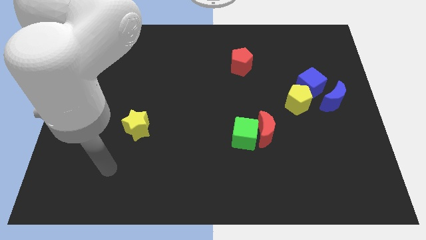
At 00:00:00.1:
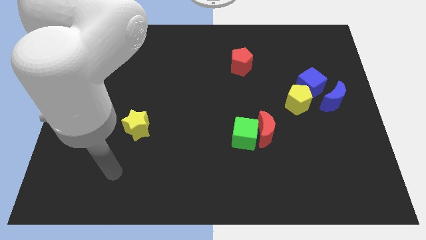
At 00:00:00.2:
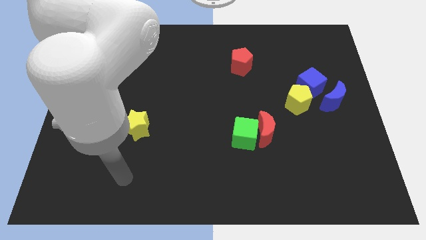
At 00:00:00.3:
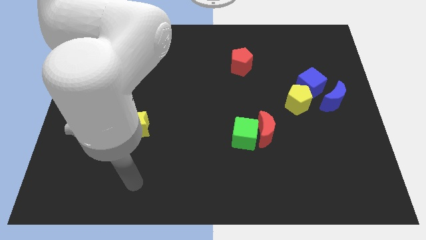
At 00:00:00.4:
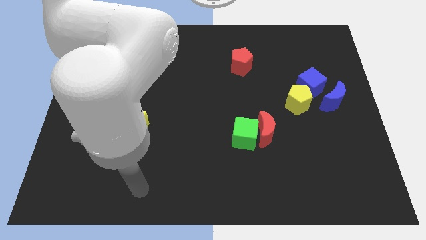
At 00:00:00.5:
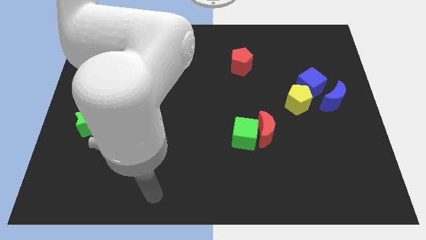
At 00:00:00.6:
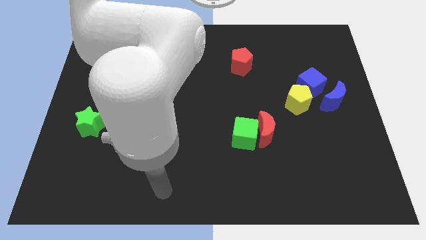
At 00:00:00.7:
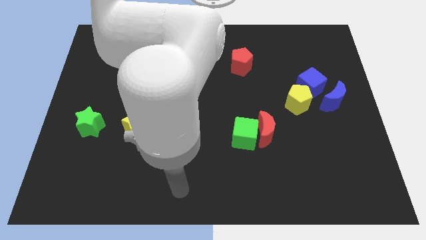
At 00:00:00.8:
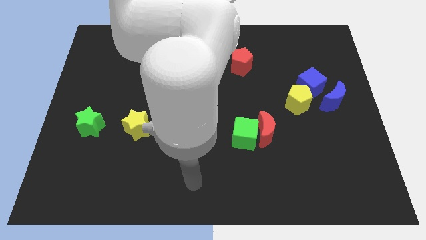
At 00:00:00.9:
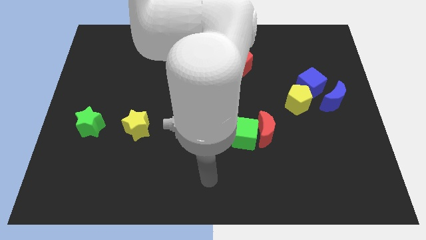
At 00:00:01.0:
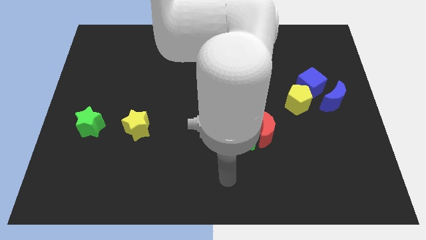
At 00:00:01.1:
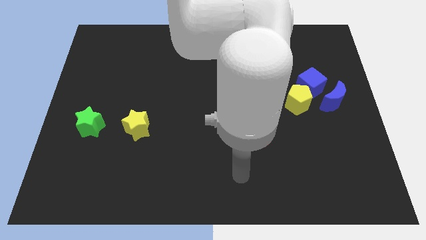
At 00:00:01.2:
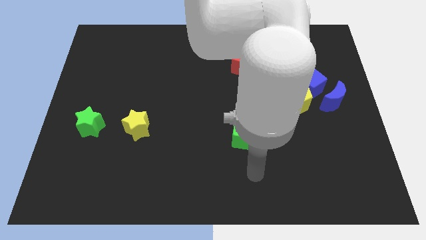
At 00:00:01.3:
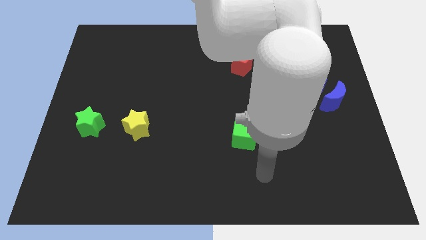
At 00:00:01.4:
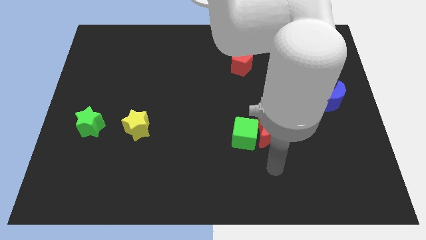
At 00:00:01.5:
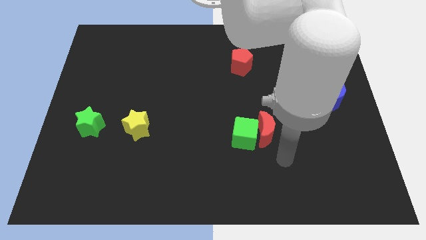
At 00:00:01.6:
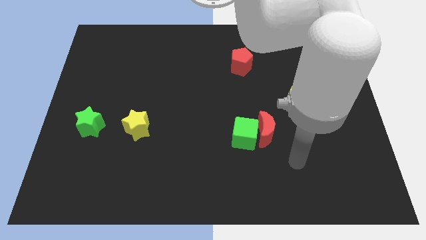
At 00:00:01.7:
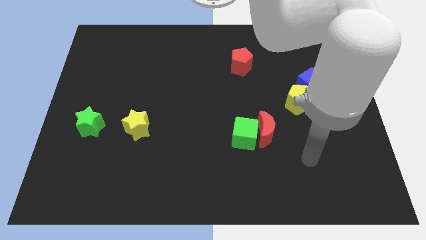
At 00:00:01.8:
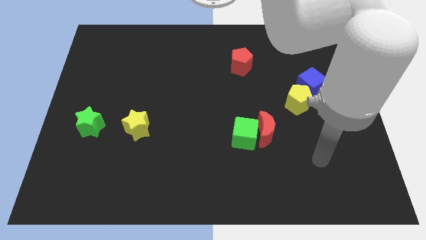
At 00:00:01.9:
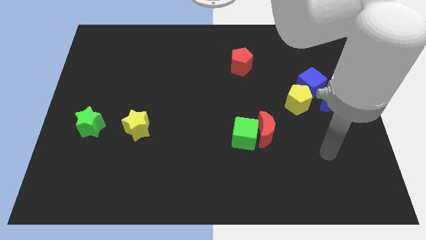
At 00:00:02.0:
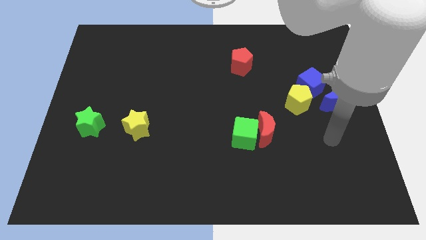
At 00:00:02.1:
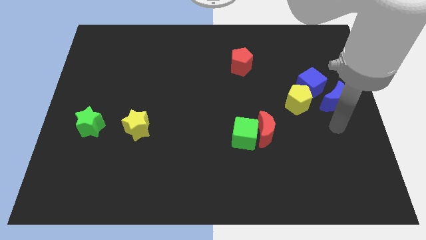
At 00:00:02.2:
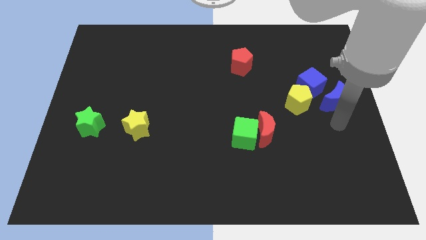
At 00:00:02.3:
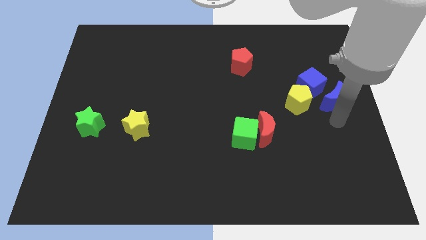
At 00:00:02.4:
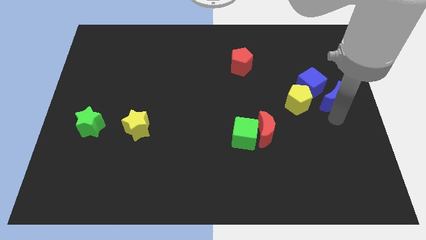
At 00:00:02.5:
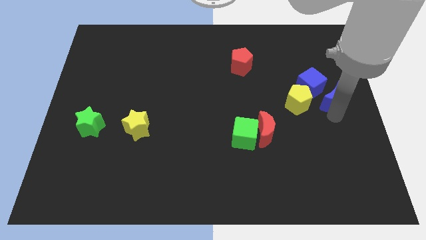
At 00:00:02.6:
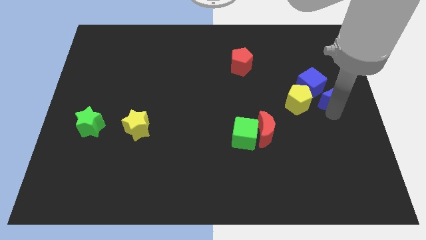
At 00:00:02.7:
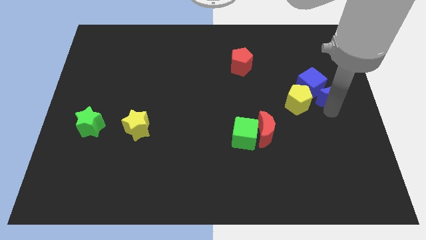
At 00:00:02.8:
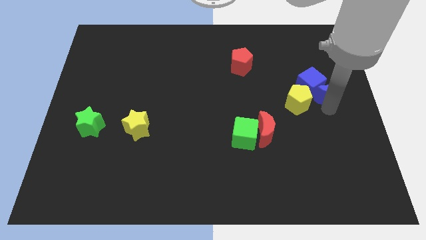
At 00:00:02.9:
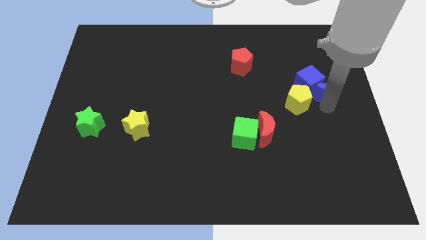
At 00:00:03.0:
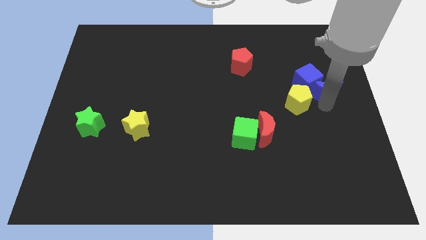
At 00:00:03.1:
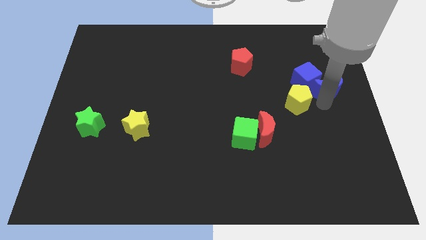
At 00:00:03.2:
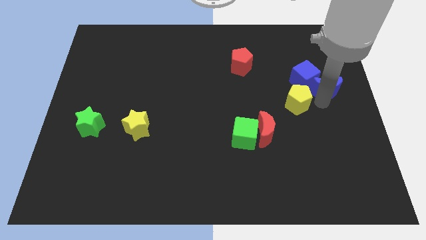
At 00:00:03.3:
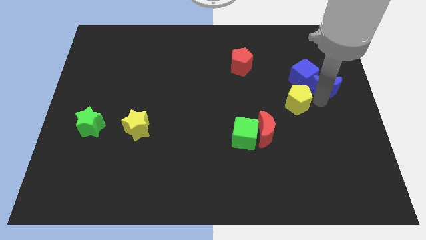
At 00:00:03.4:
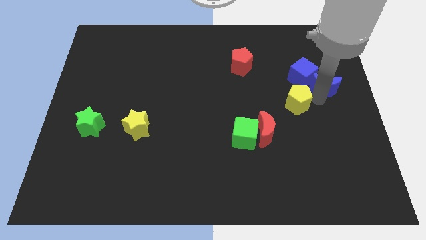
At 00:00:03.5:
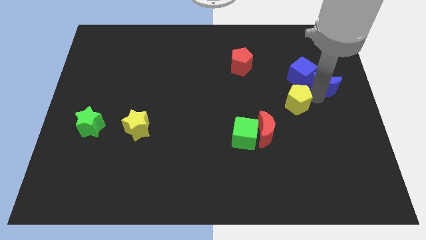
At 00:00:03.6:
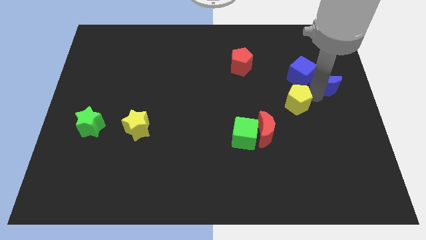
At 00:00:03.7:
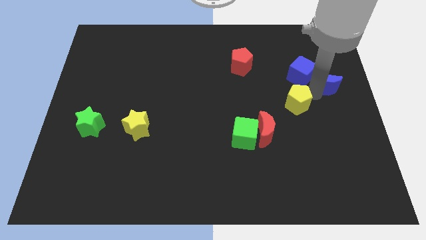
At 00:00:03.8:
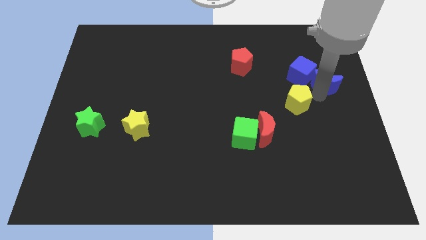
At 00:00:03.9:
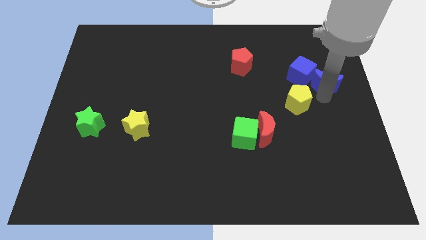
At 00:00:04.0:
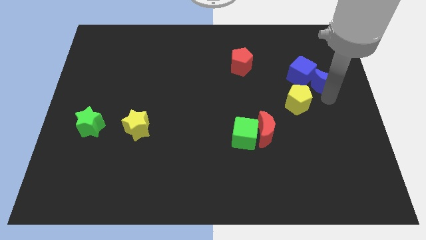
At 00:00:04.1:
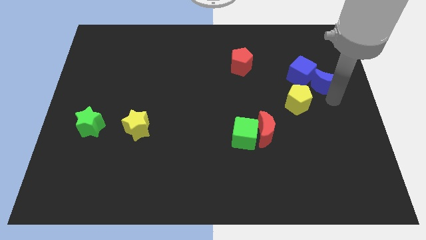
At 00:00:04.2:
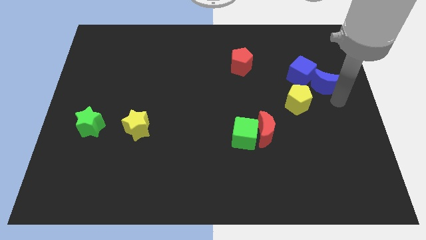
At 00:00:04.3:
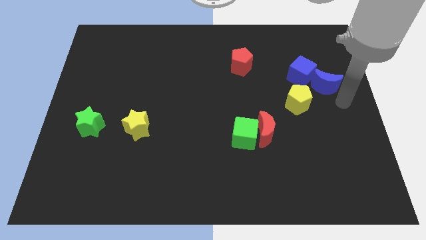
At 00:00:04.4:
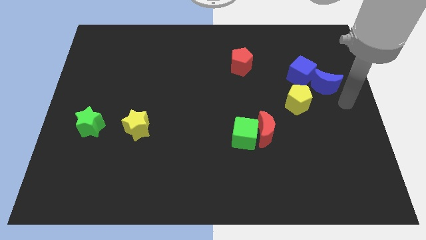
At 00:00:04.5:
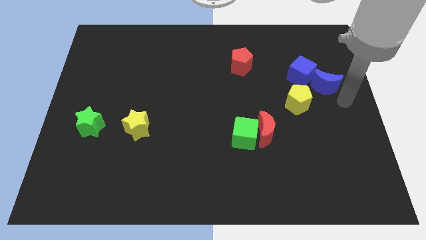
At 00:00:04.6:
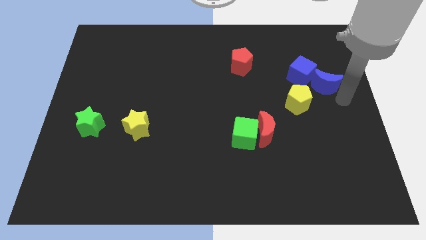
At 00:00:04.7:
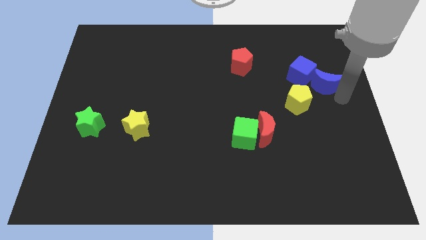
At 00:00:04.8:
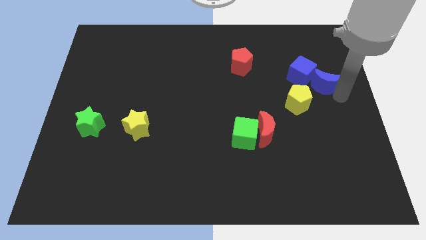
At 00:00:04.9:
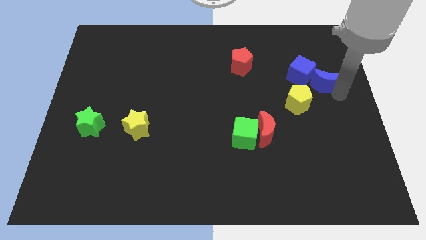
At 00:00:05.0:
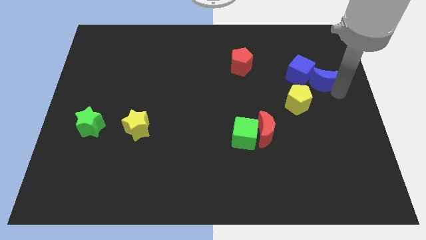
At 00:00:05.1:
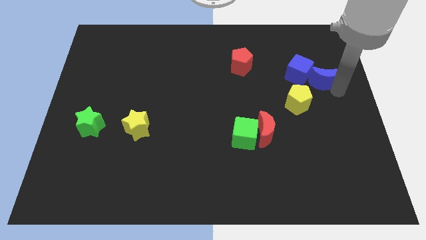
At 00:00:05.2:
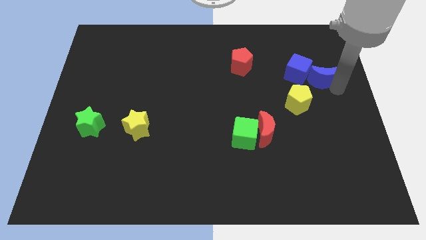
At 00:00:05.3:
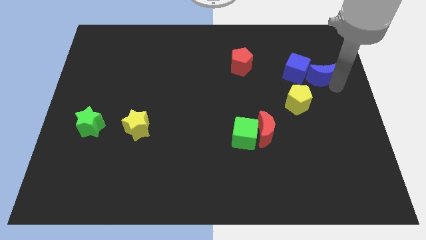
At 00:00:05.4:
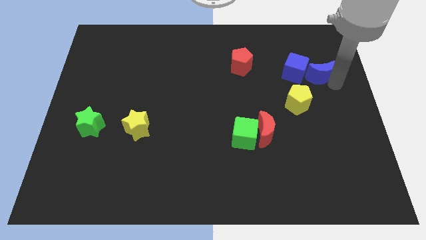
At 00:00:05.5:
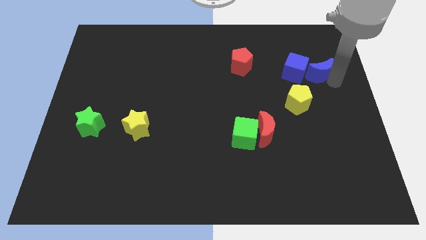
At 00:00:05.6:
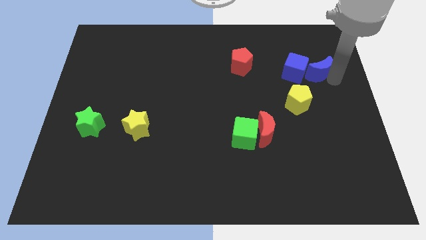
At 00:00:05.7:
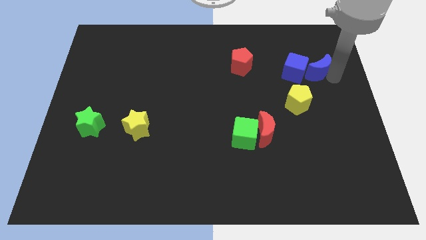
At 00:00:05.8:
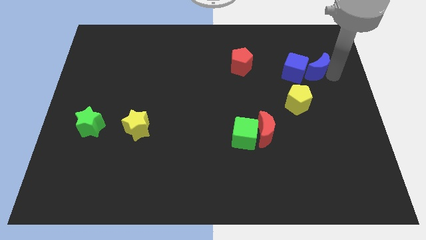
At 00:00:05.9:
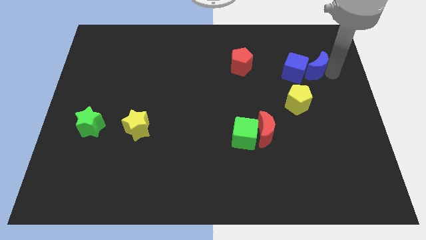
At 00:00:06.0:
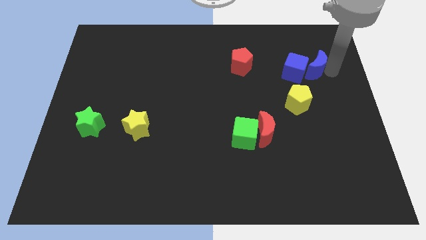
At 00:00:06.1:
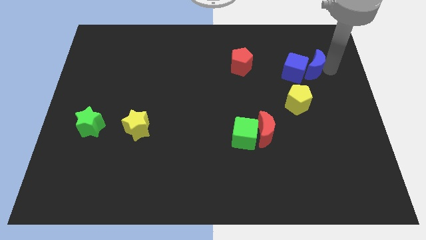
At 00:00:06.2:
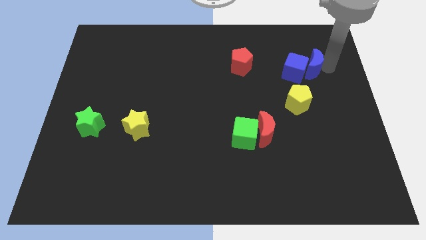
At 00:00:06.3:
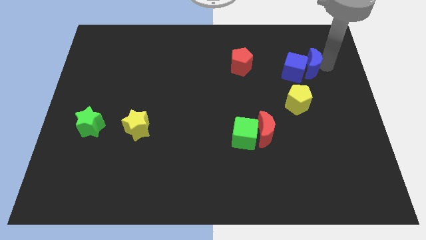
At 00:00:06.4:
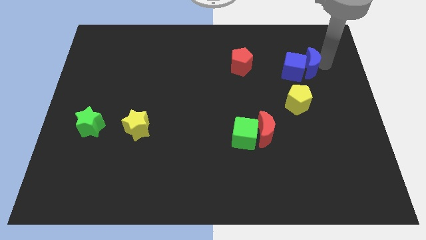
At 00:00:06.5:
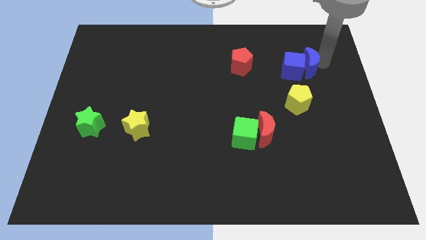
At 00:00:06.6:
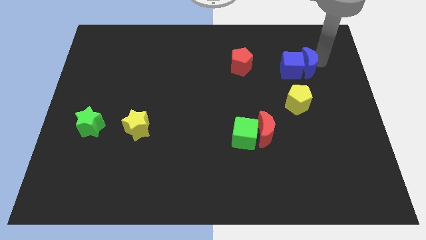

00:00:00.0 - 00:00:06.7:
put the blue moon to the top of the yellow pentagon

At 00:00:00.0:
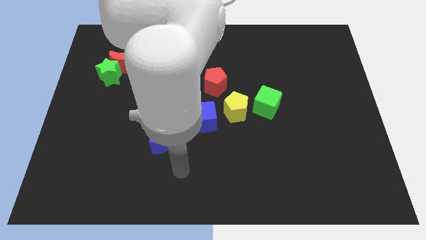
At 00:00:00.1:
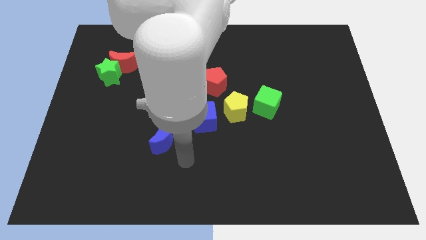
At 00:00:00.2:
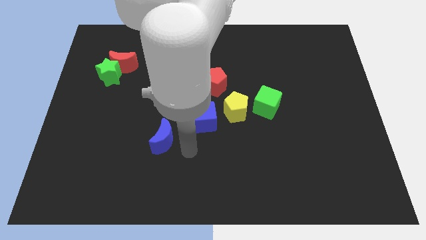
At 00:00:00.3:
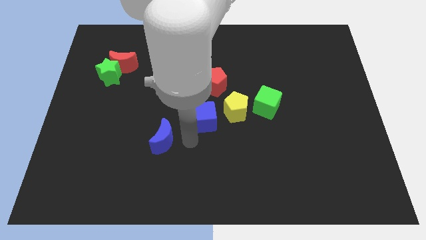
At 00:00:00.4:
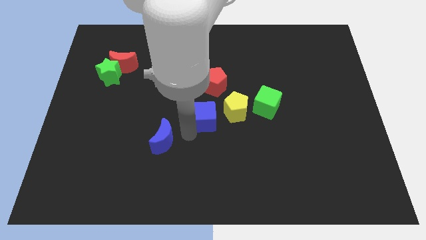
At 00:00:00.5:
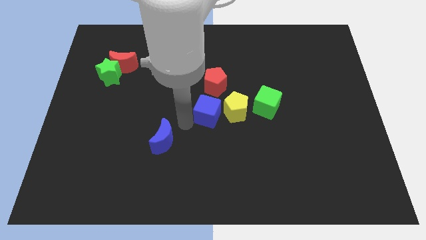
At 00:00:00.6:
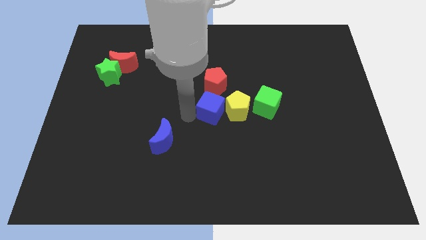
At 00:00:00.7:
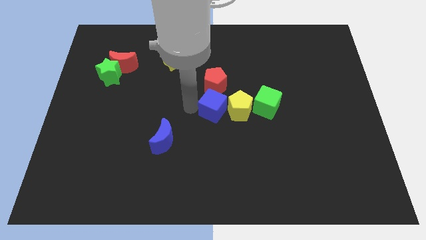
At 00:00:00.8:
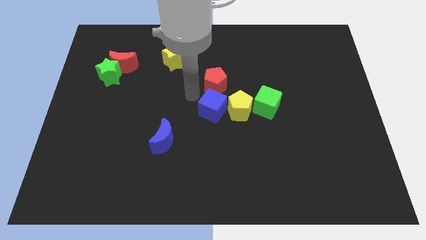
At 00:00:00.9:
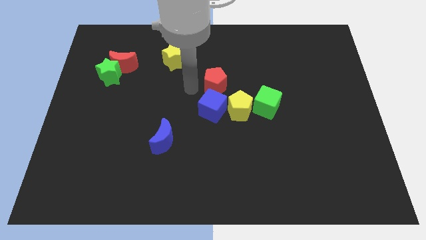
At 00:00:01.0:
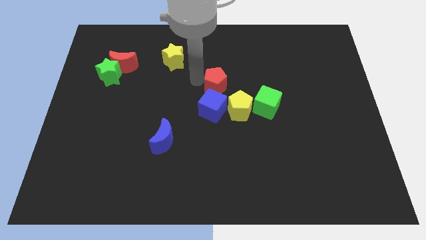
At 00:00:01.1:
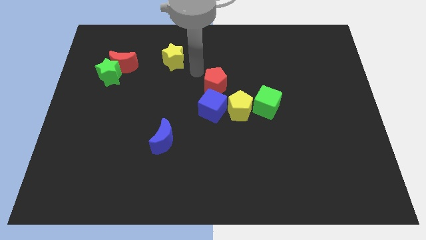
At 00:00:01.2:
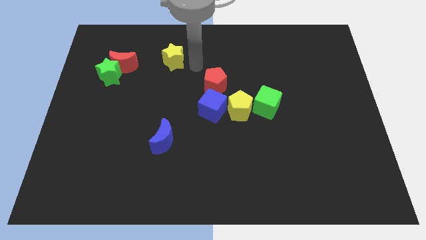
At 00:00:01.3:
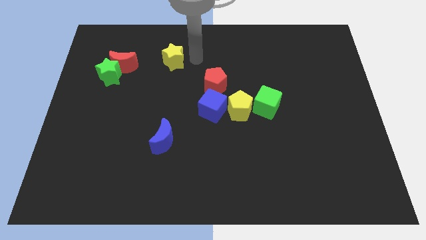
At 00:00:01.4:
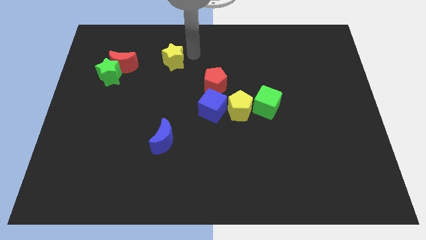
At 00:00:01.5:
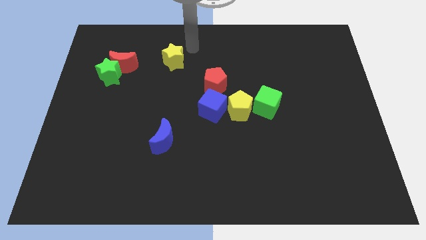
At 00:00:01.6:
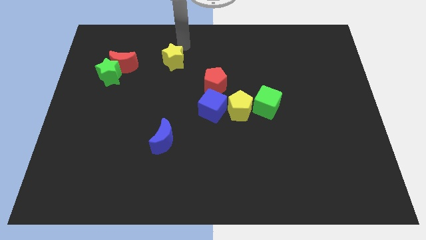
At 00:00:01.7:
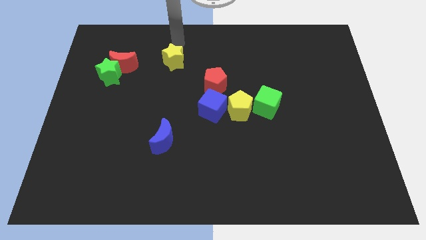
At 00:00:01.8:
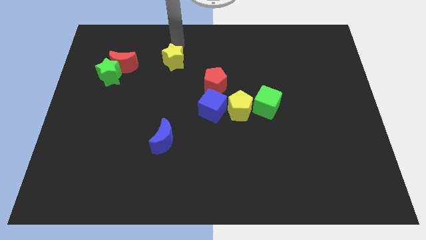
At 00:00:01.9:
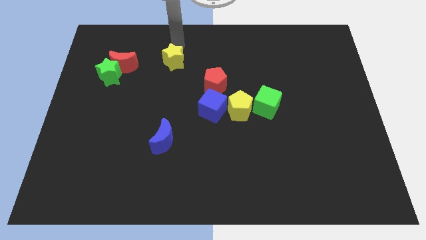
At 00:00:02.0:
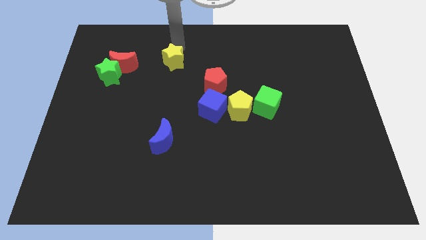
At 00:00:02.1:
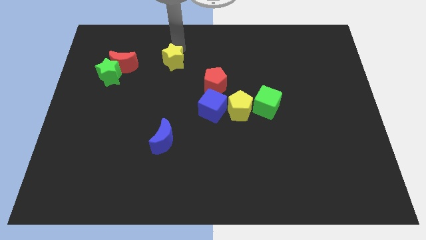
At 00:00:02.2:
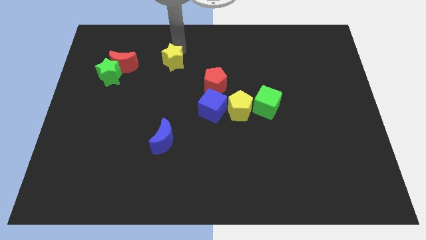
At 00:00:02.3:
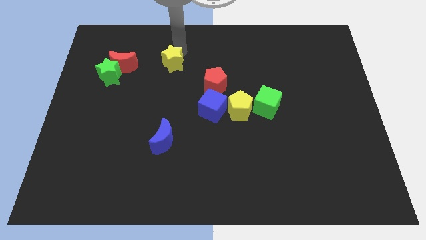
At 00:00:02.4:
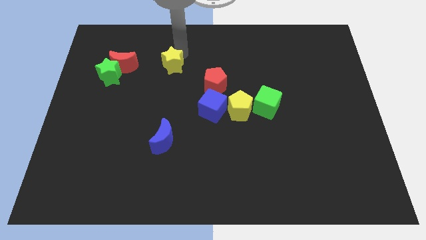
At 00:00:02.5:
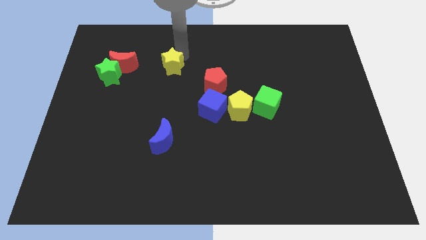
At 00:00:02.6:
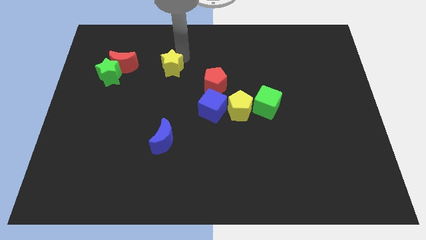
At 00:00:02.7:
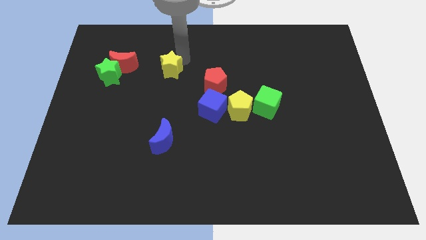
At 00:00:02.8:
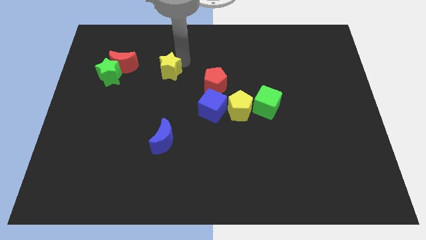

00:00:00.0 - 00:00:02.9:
slide the yellow star left of the red pentagon
